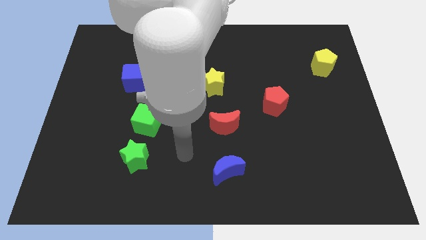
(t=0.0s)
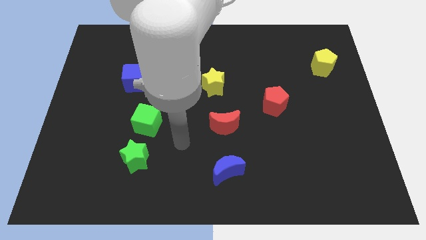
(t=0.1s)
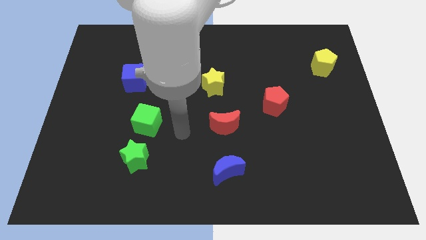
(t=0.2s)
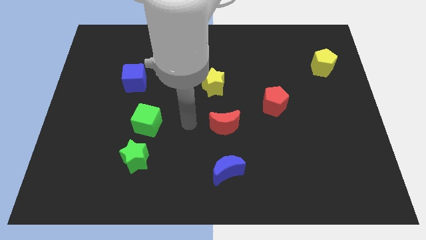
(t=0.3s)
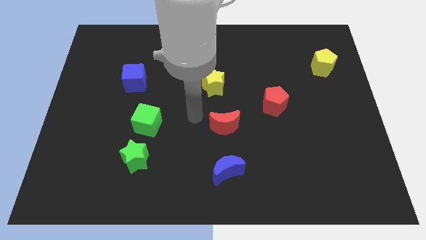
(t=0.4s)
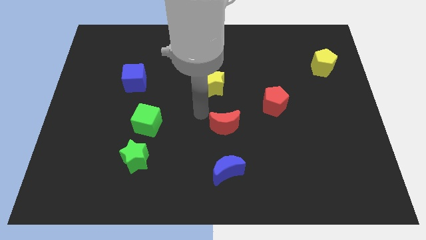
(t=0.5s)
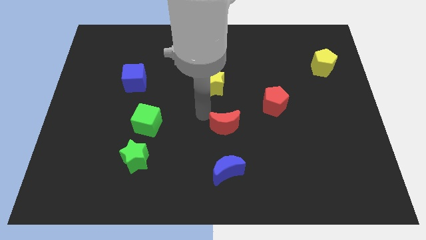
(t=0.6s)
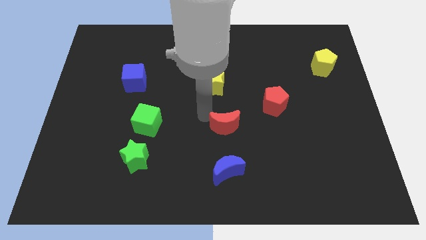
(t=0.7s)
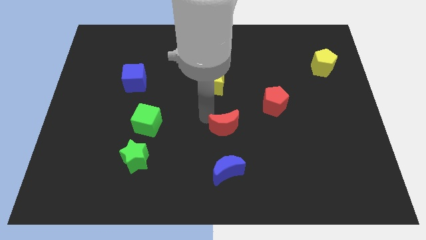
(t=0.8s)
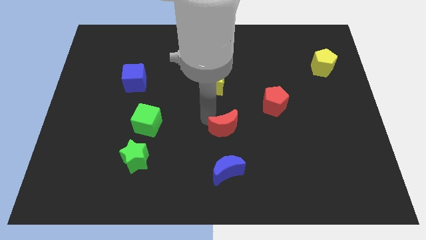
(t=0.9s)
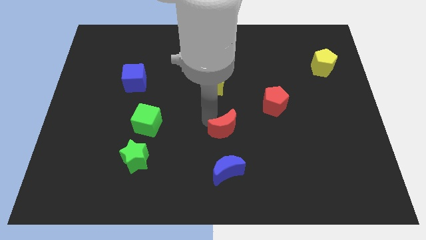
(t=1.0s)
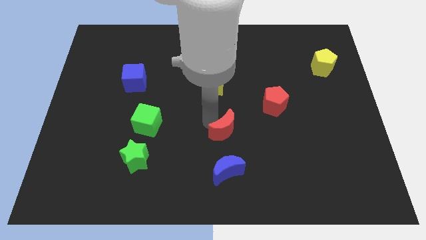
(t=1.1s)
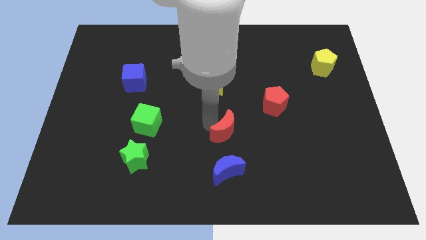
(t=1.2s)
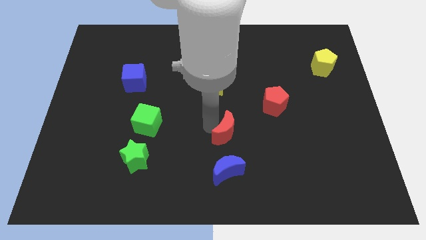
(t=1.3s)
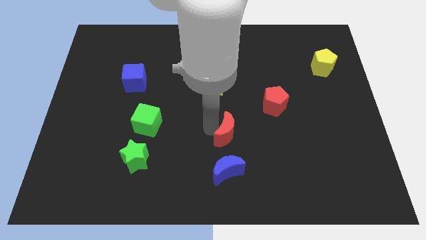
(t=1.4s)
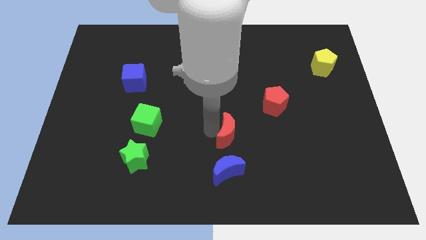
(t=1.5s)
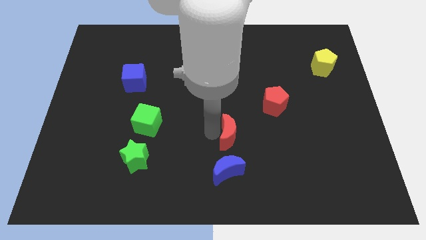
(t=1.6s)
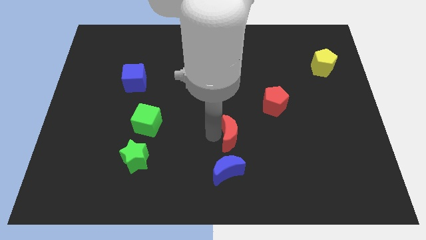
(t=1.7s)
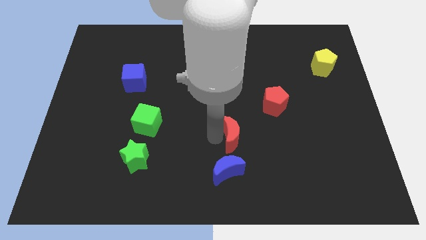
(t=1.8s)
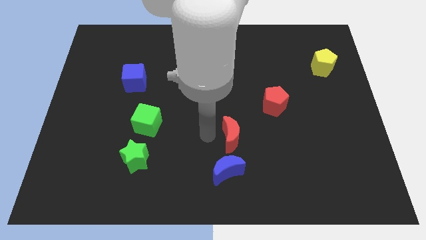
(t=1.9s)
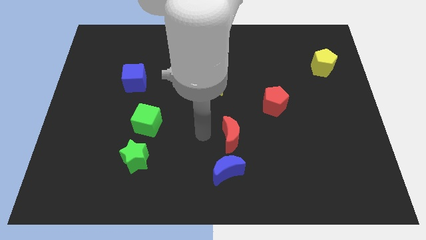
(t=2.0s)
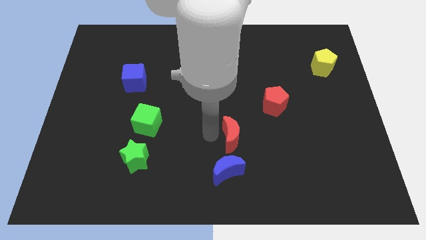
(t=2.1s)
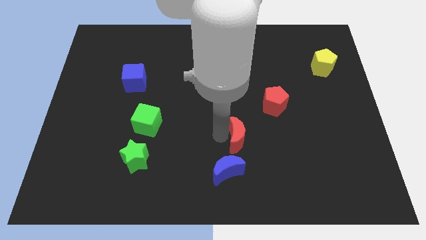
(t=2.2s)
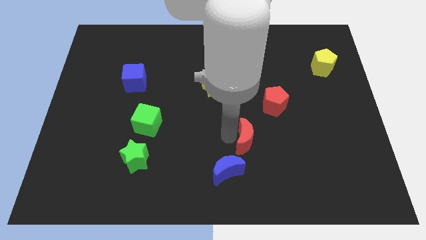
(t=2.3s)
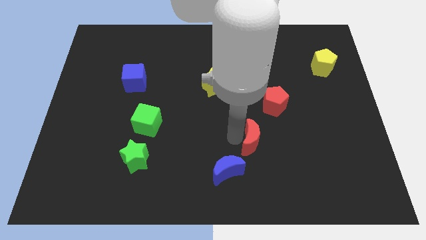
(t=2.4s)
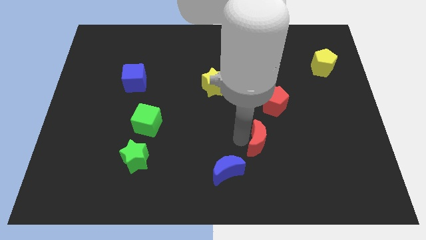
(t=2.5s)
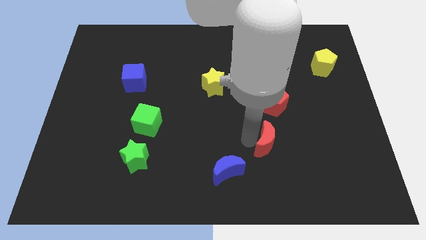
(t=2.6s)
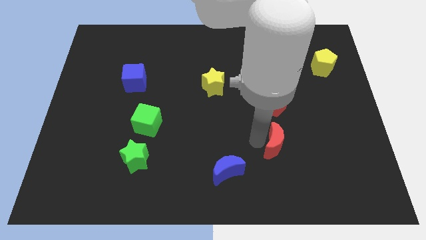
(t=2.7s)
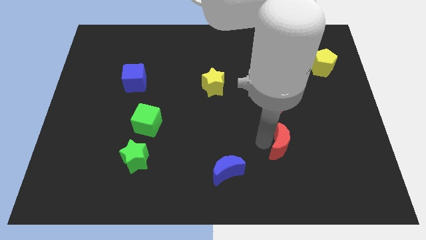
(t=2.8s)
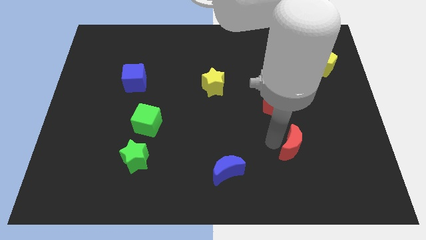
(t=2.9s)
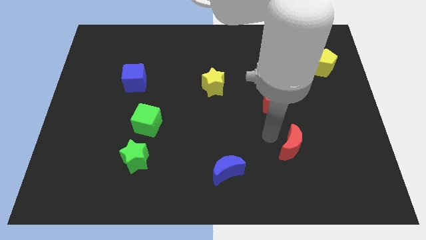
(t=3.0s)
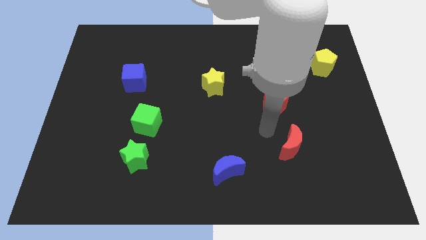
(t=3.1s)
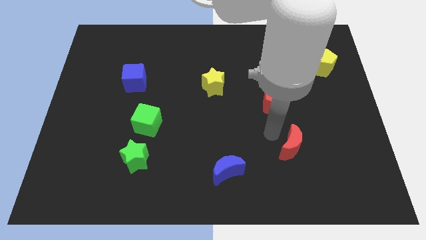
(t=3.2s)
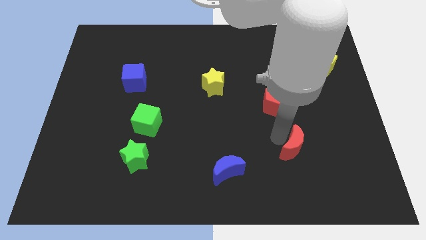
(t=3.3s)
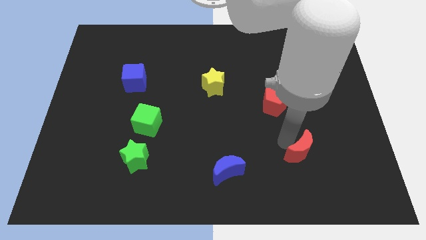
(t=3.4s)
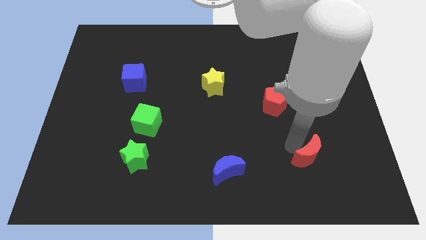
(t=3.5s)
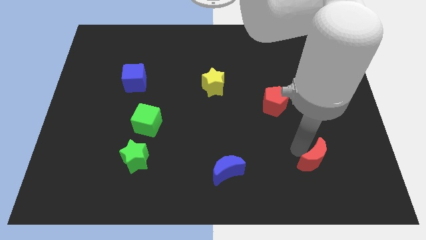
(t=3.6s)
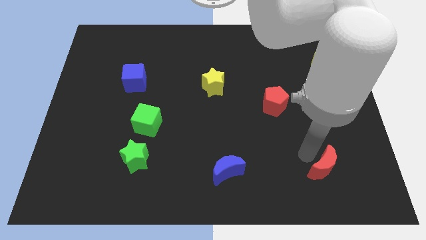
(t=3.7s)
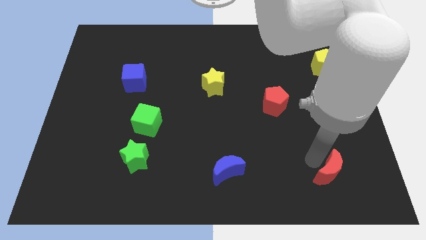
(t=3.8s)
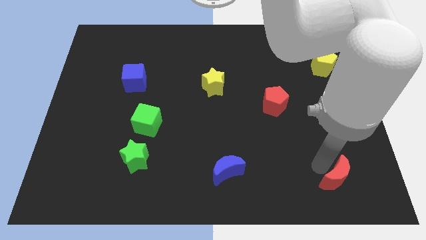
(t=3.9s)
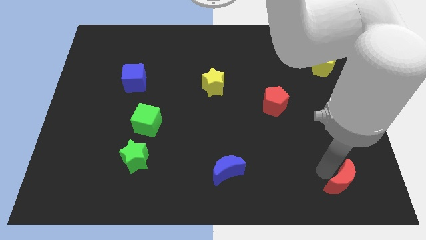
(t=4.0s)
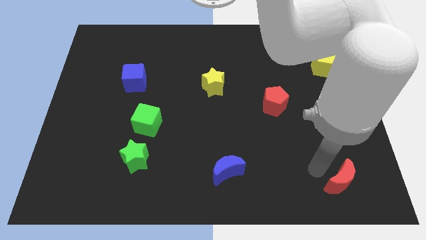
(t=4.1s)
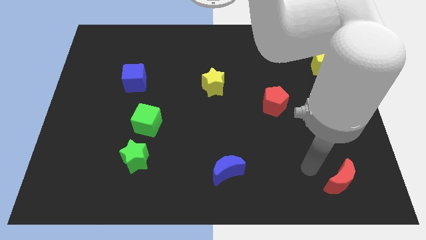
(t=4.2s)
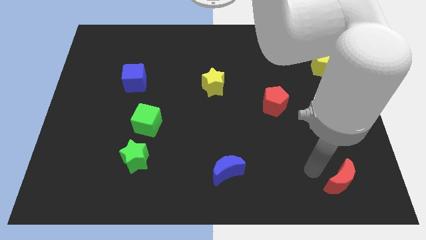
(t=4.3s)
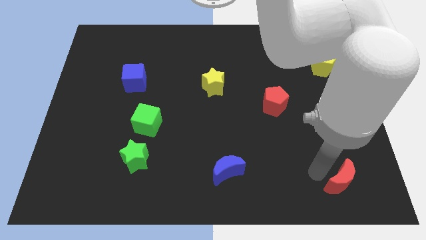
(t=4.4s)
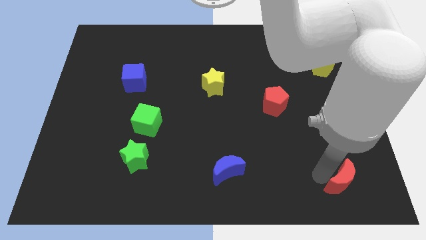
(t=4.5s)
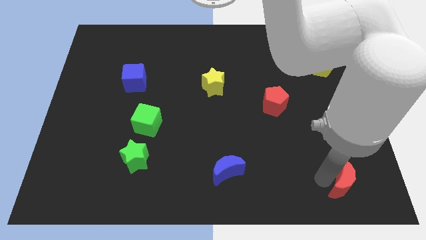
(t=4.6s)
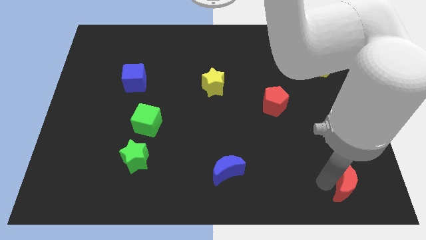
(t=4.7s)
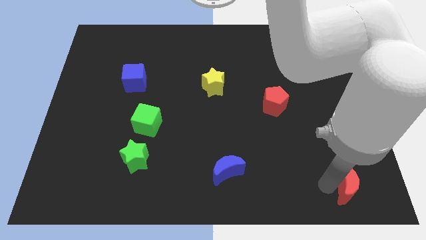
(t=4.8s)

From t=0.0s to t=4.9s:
put the red moon to the bottom right of the board

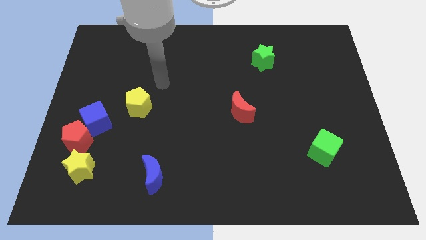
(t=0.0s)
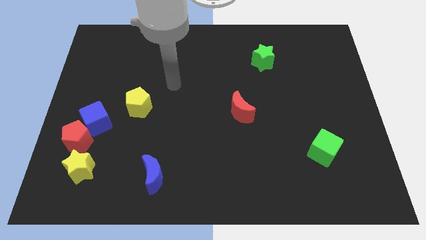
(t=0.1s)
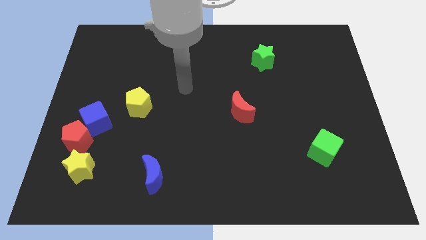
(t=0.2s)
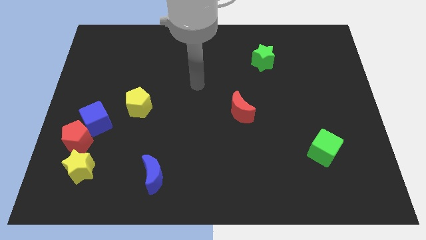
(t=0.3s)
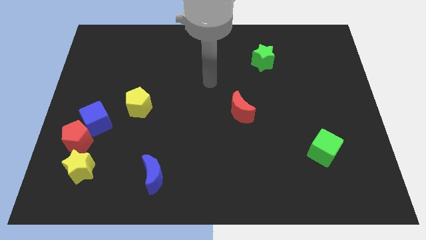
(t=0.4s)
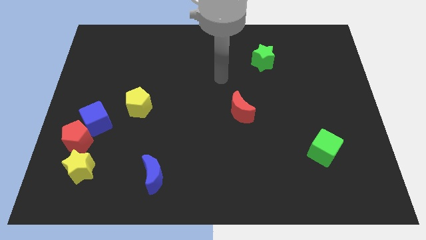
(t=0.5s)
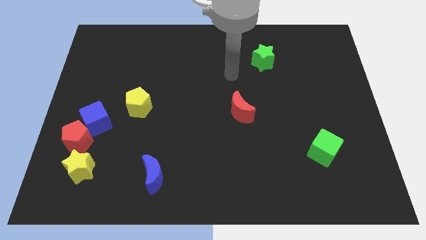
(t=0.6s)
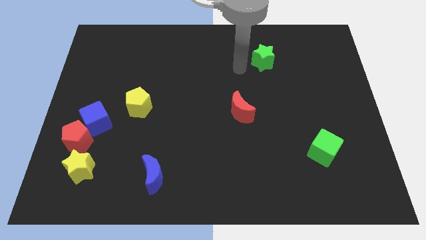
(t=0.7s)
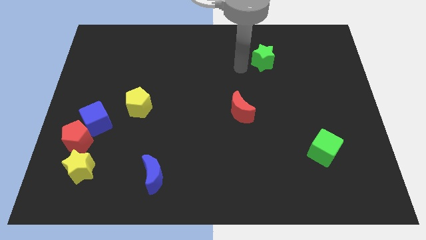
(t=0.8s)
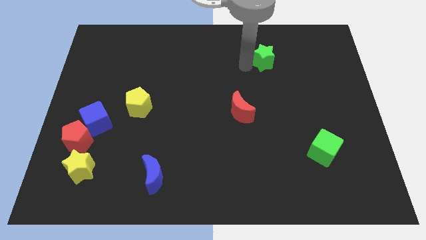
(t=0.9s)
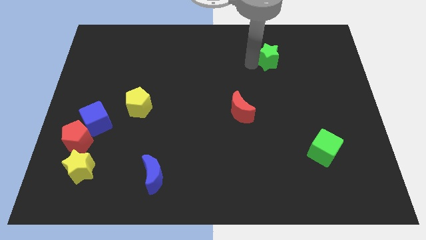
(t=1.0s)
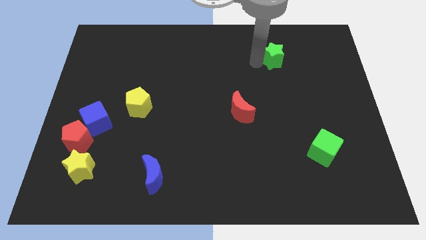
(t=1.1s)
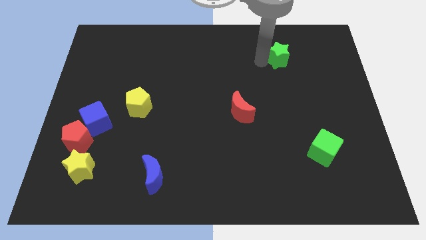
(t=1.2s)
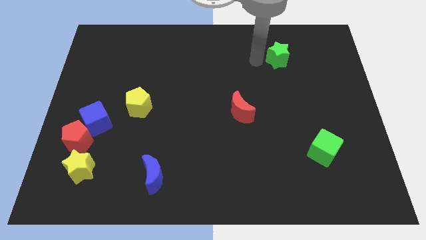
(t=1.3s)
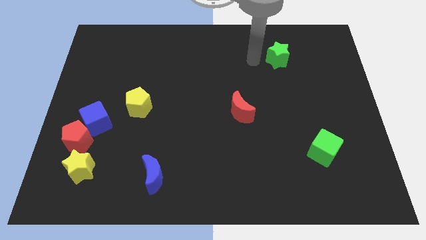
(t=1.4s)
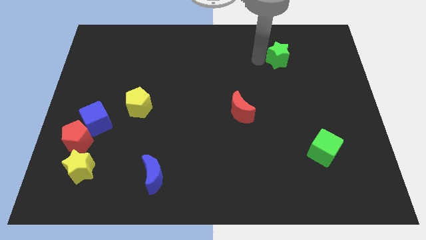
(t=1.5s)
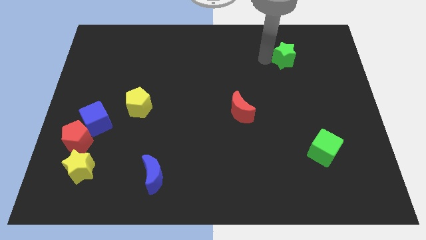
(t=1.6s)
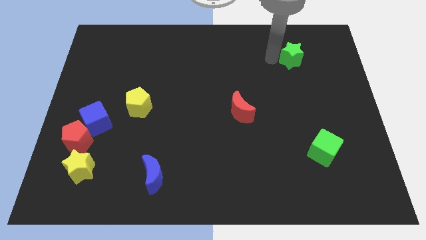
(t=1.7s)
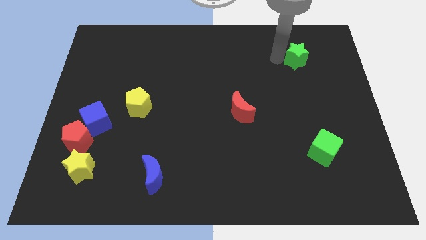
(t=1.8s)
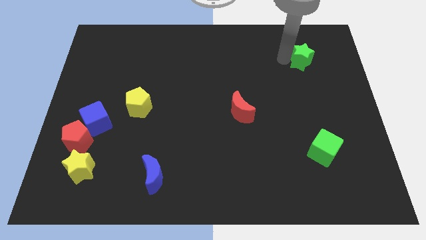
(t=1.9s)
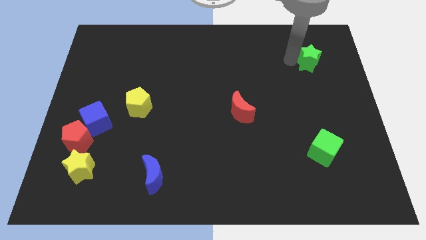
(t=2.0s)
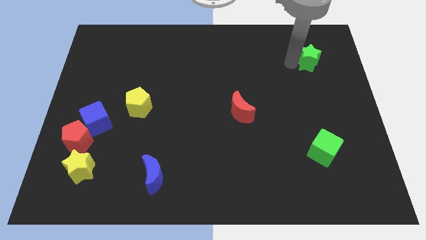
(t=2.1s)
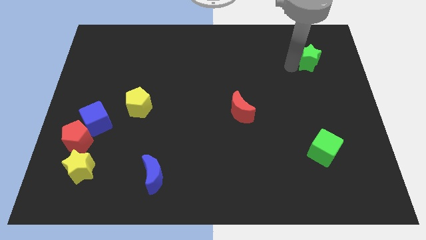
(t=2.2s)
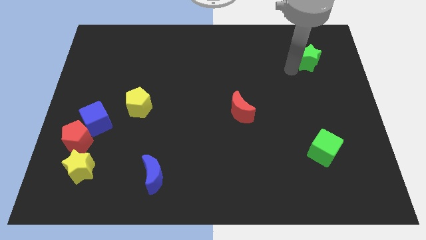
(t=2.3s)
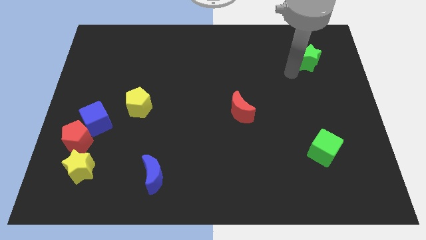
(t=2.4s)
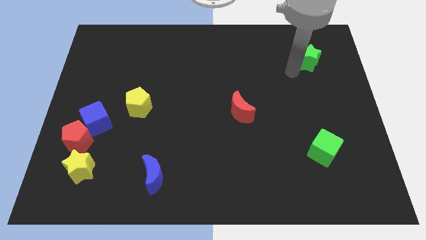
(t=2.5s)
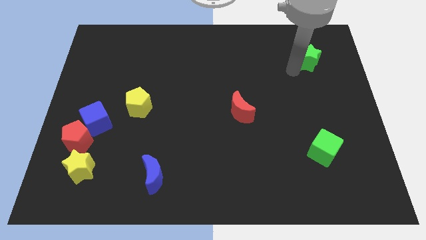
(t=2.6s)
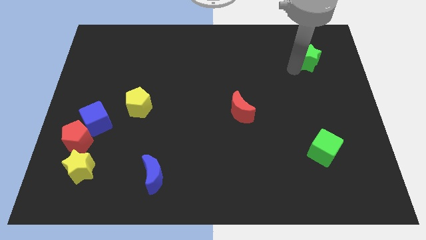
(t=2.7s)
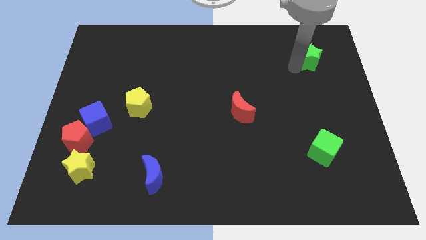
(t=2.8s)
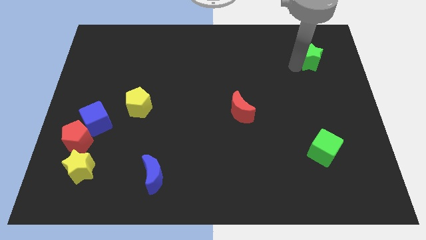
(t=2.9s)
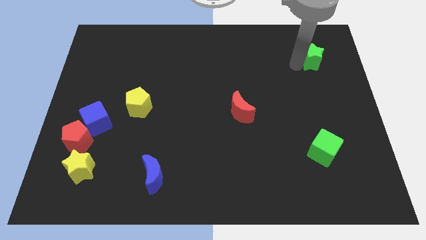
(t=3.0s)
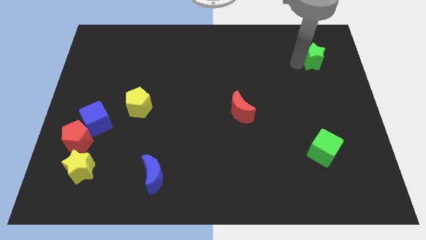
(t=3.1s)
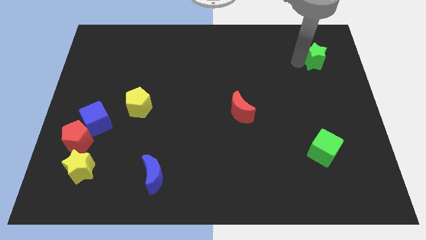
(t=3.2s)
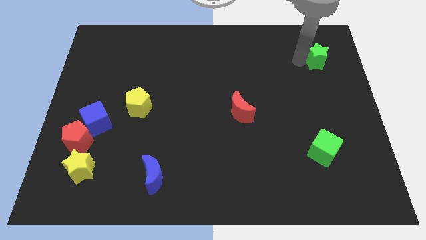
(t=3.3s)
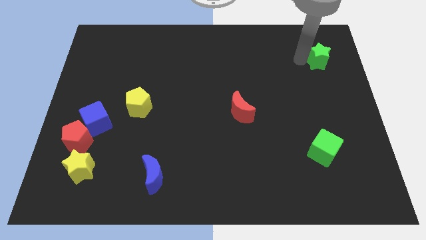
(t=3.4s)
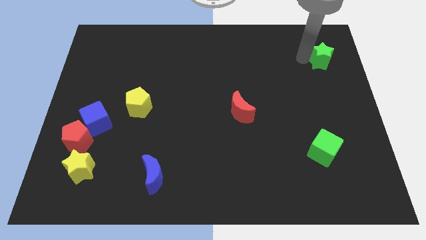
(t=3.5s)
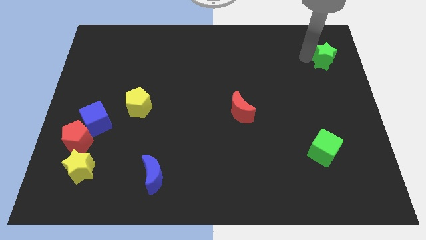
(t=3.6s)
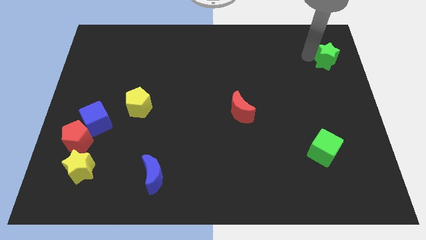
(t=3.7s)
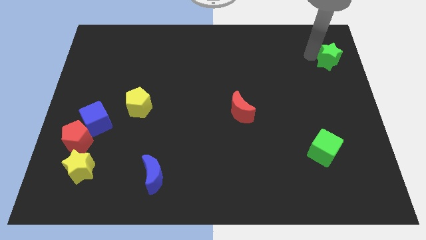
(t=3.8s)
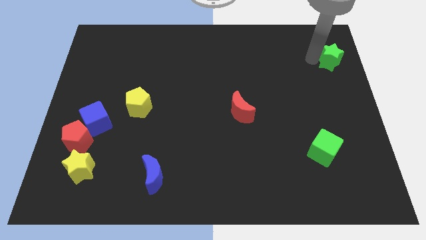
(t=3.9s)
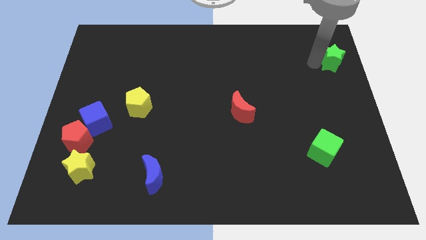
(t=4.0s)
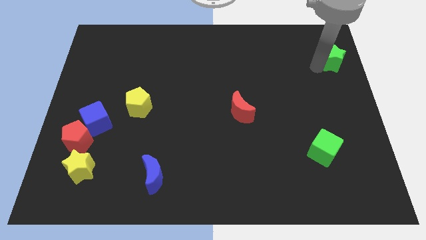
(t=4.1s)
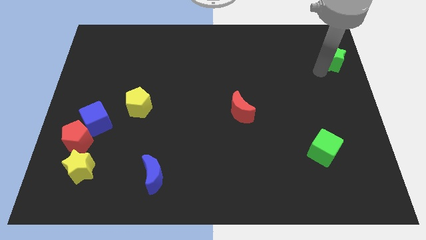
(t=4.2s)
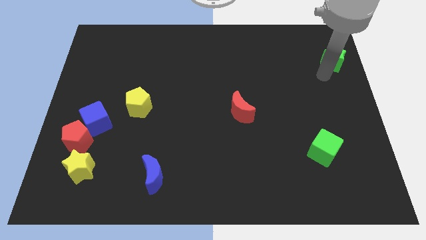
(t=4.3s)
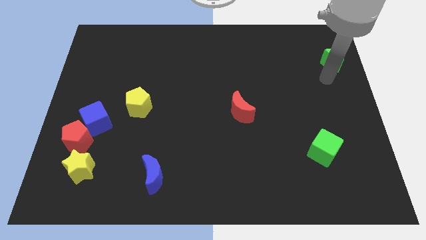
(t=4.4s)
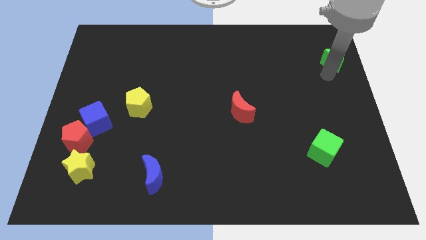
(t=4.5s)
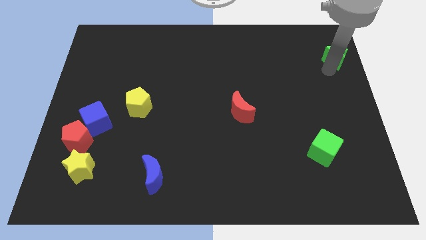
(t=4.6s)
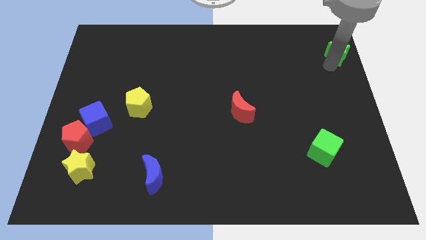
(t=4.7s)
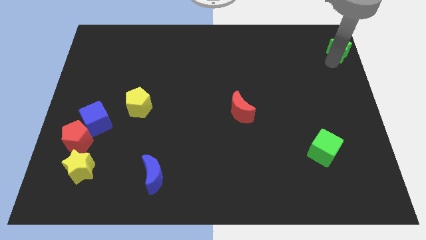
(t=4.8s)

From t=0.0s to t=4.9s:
push the green star to the top right corner
